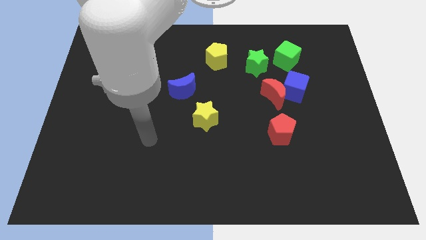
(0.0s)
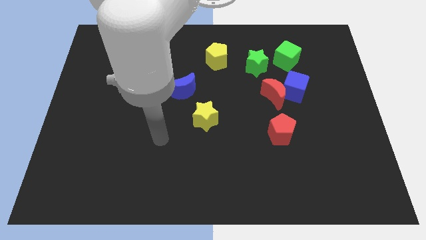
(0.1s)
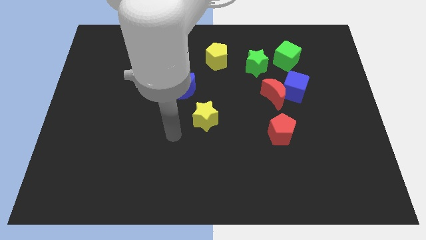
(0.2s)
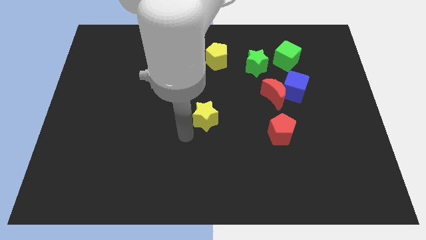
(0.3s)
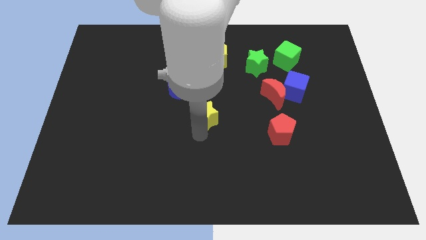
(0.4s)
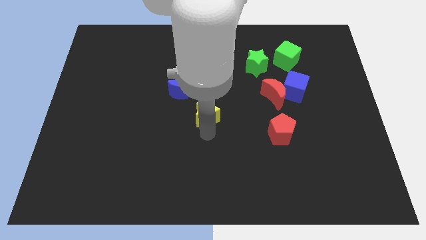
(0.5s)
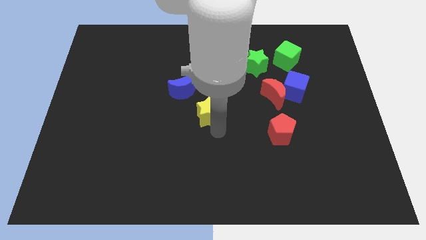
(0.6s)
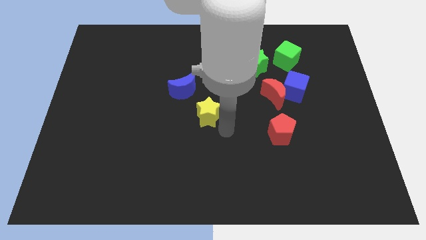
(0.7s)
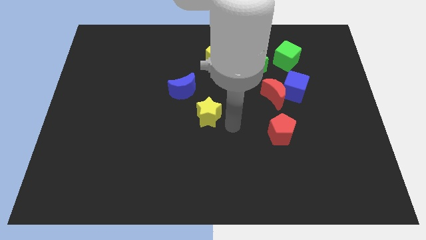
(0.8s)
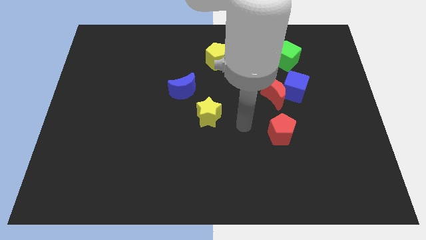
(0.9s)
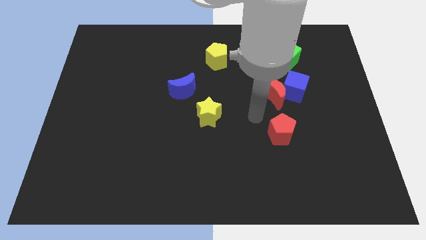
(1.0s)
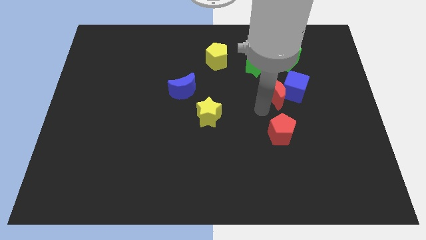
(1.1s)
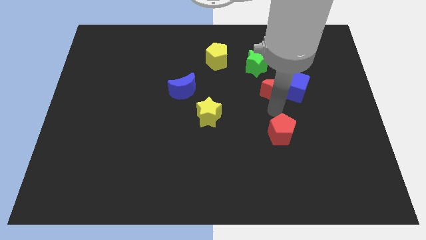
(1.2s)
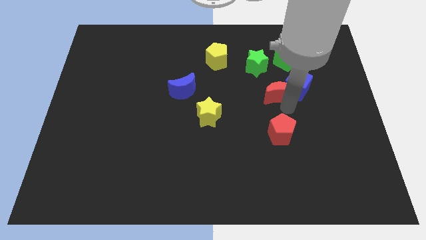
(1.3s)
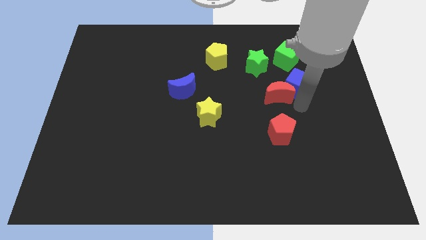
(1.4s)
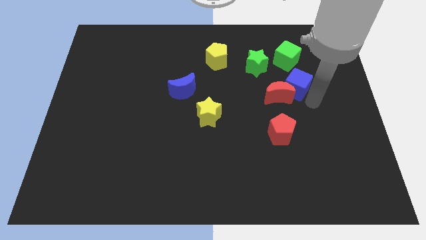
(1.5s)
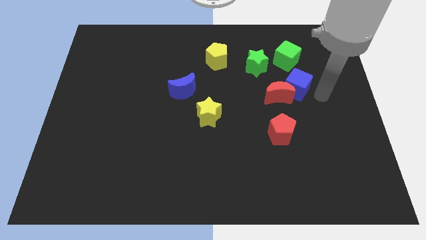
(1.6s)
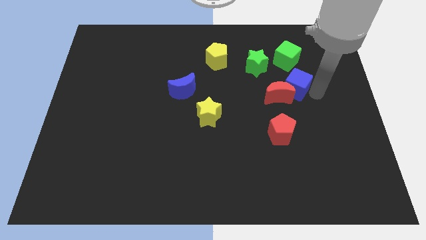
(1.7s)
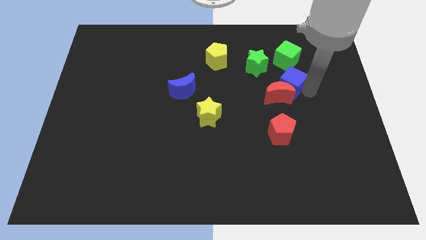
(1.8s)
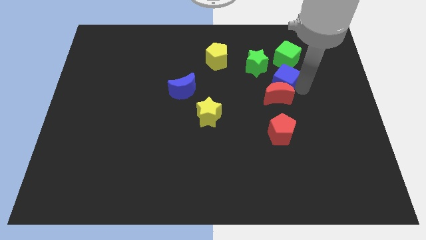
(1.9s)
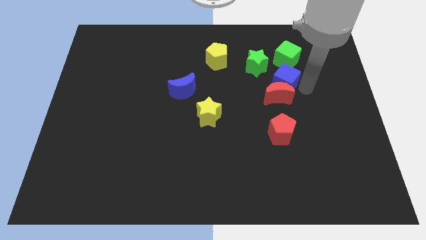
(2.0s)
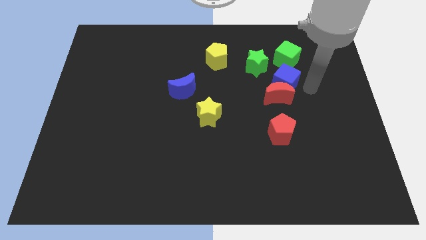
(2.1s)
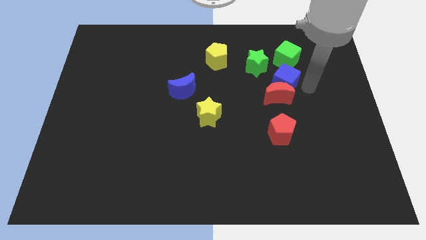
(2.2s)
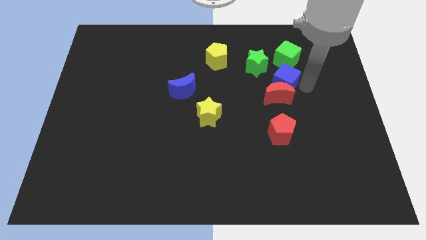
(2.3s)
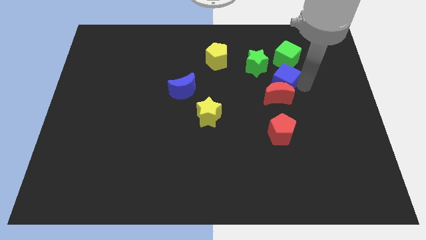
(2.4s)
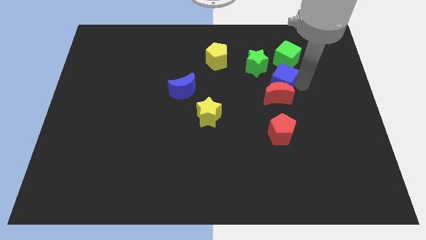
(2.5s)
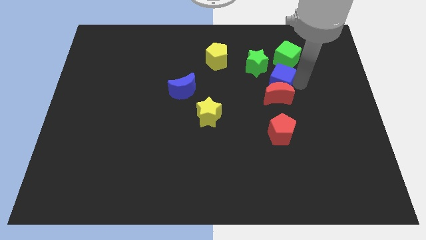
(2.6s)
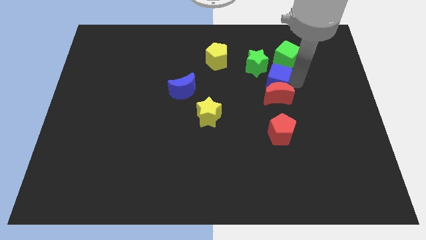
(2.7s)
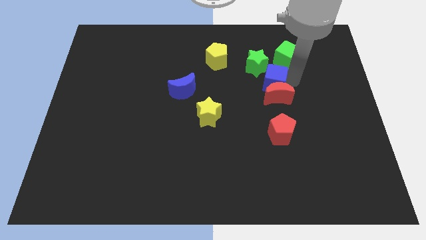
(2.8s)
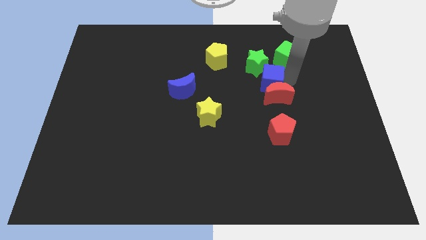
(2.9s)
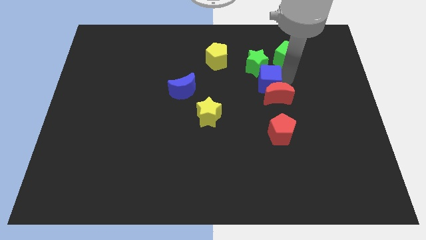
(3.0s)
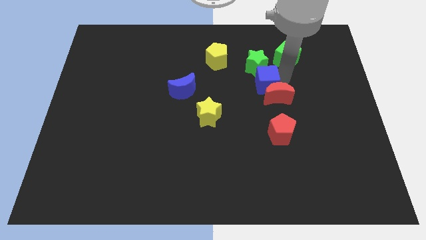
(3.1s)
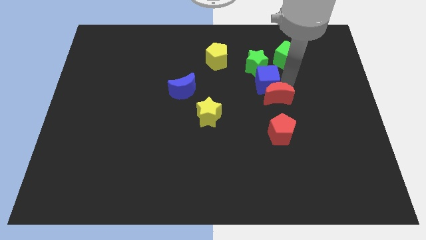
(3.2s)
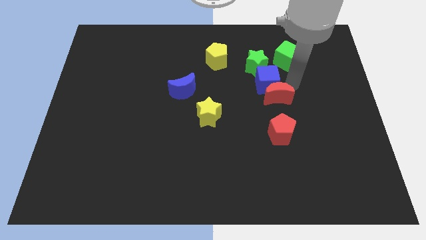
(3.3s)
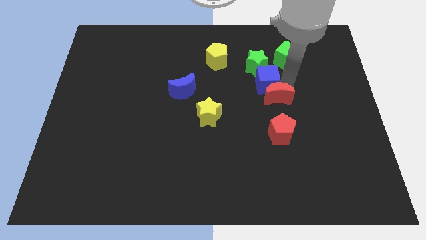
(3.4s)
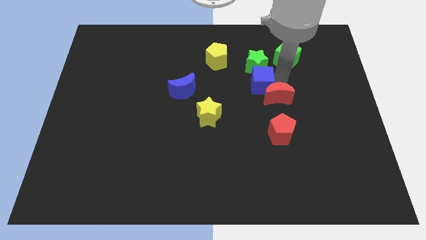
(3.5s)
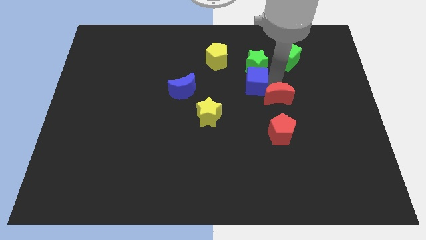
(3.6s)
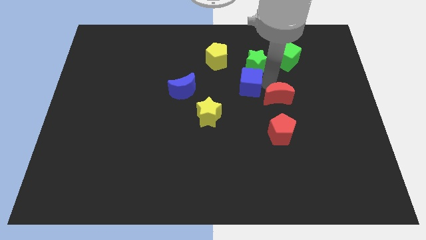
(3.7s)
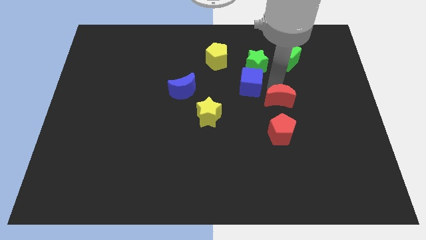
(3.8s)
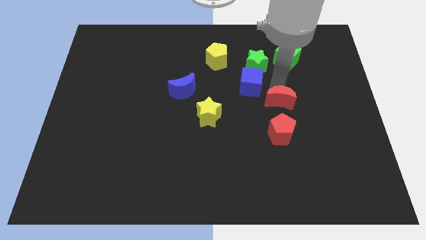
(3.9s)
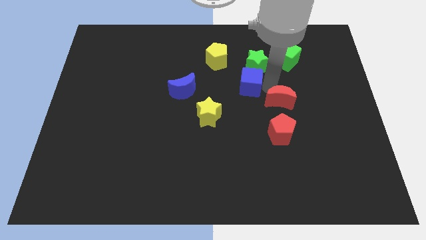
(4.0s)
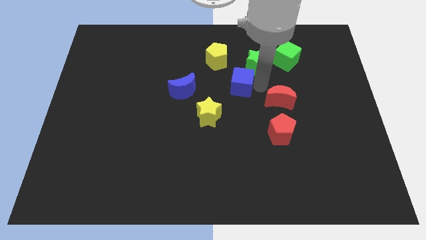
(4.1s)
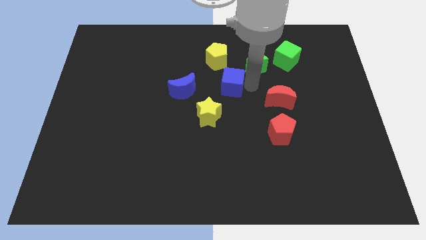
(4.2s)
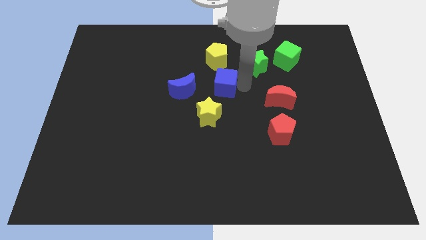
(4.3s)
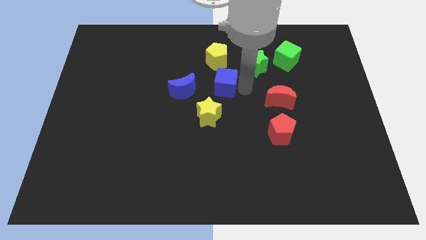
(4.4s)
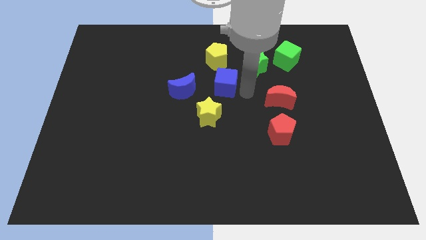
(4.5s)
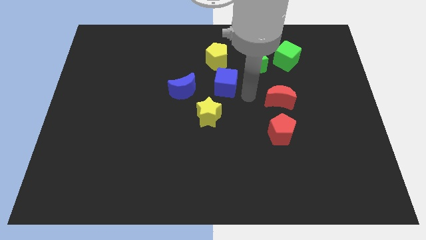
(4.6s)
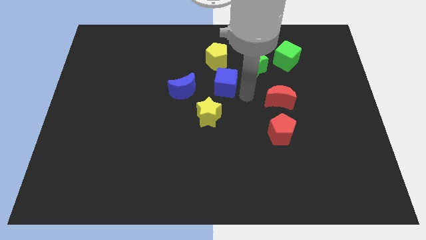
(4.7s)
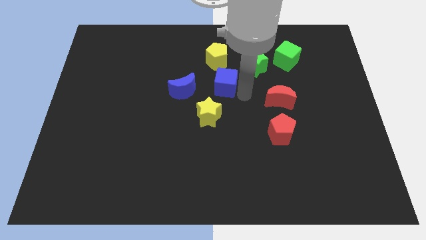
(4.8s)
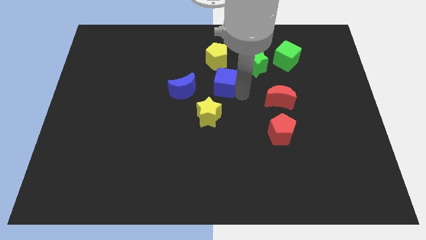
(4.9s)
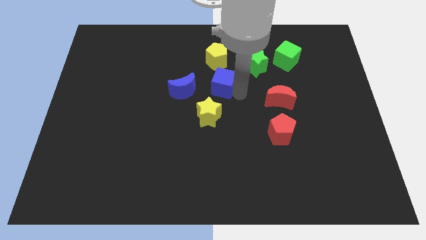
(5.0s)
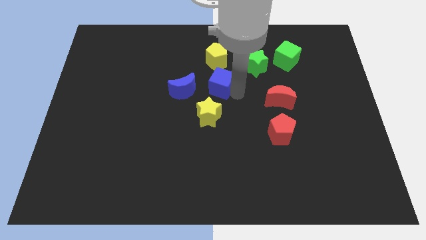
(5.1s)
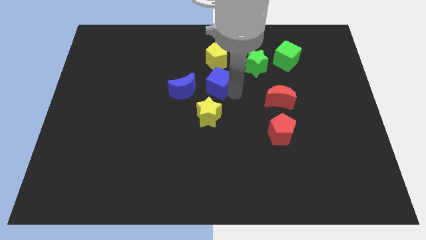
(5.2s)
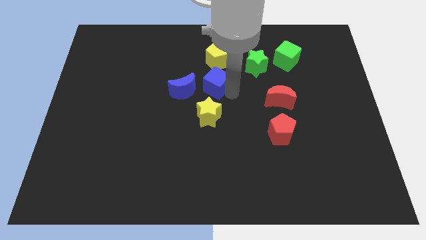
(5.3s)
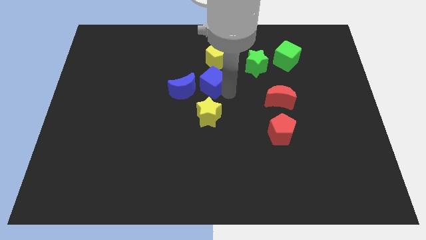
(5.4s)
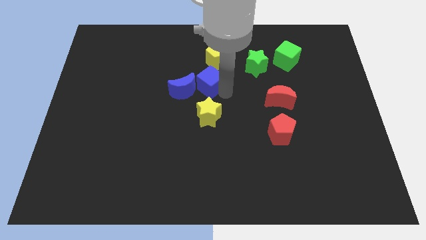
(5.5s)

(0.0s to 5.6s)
push the blue cube diagonally down and to the left of the yellow pentagon
